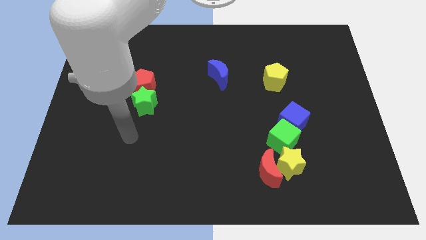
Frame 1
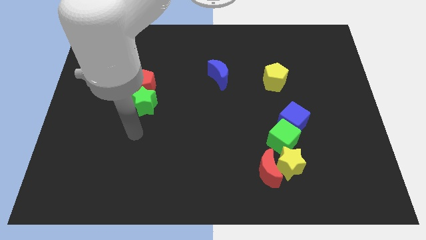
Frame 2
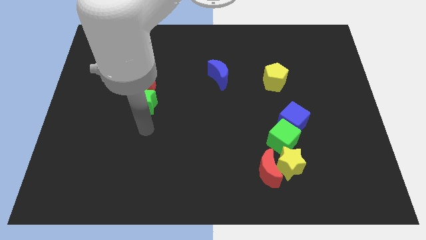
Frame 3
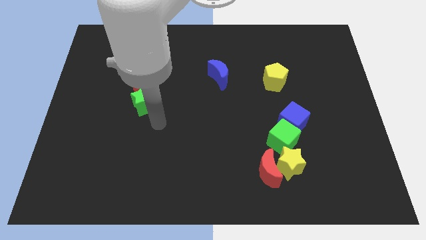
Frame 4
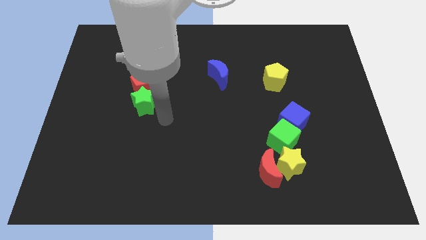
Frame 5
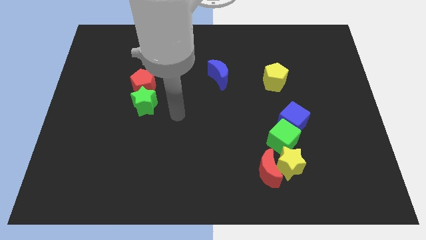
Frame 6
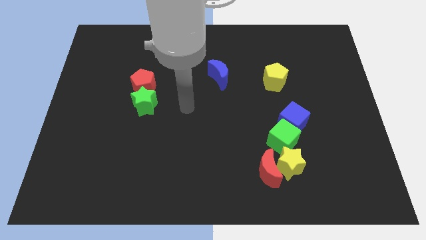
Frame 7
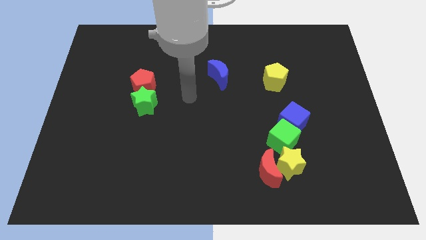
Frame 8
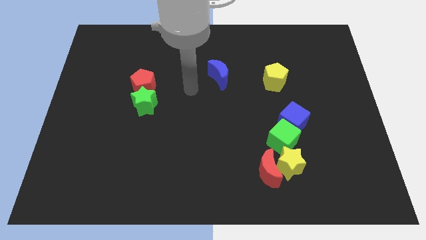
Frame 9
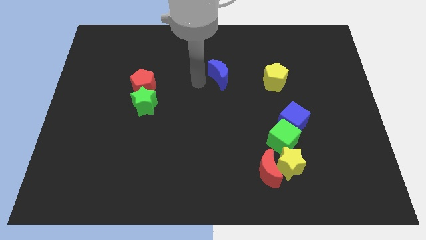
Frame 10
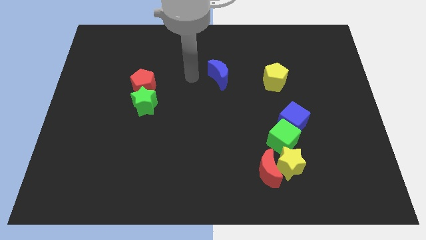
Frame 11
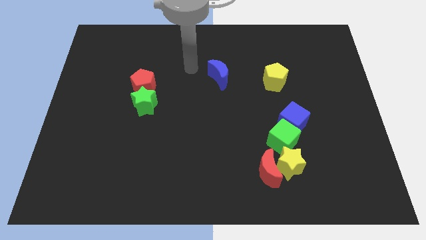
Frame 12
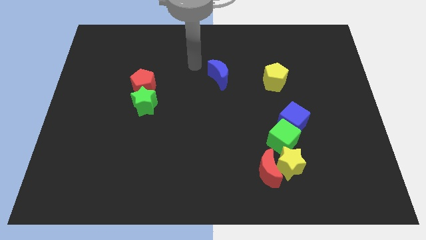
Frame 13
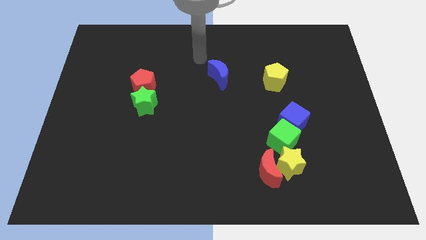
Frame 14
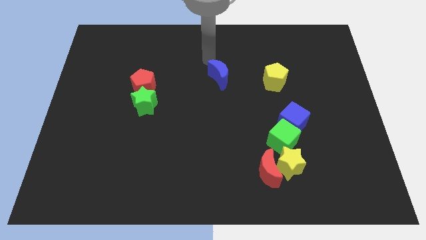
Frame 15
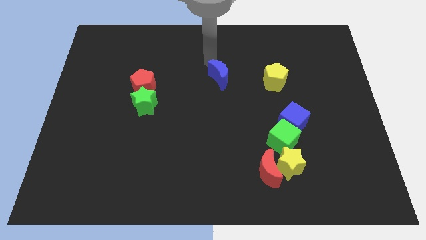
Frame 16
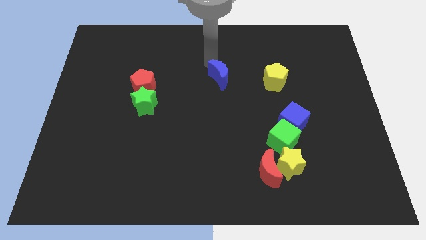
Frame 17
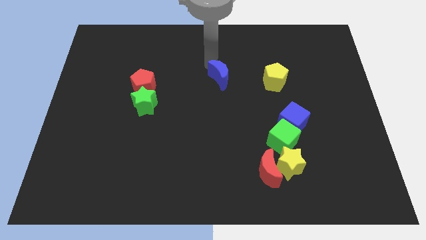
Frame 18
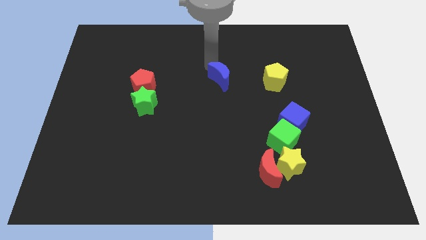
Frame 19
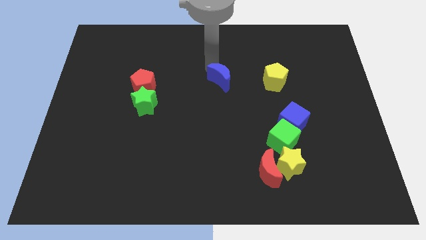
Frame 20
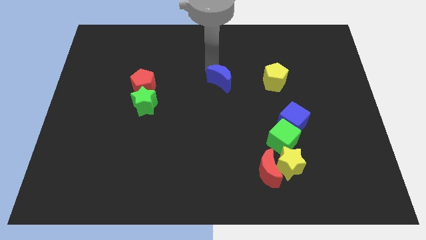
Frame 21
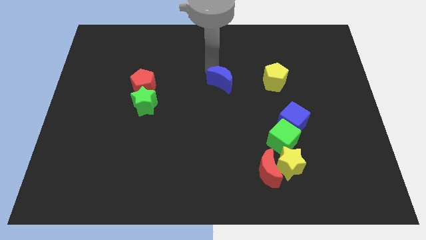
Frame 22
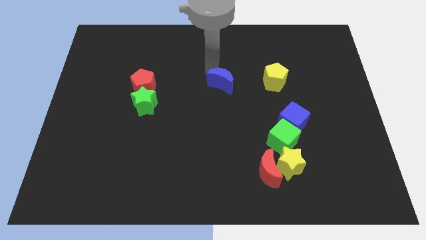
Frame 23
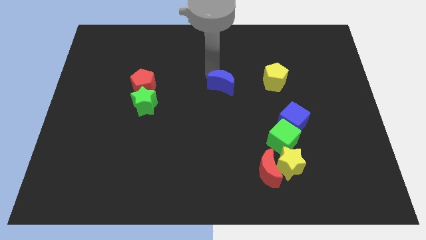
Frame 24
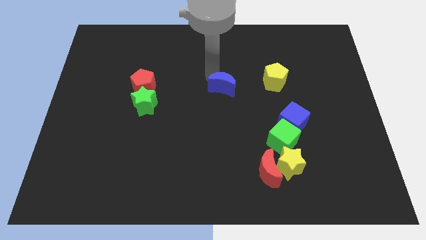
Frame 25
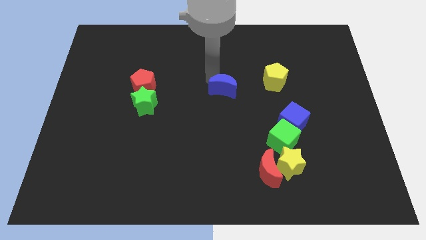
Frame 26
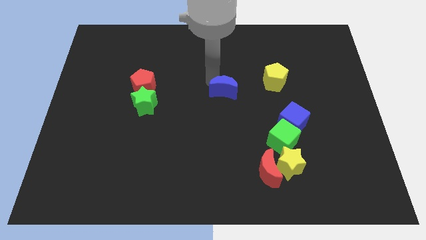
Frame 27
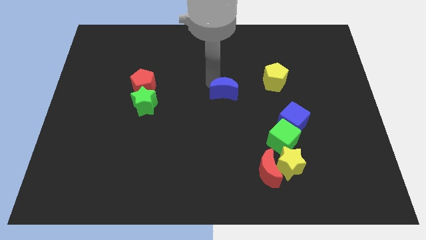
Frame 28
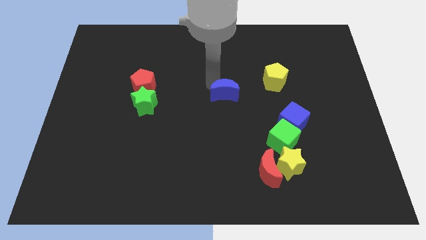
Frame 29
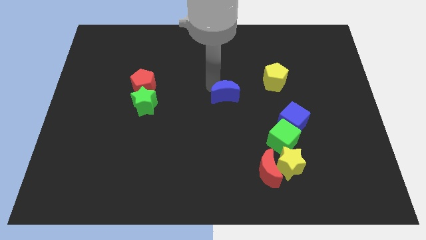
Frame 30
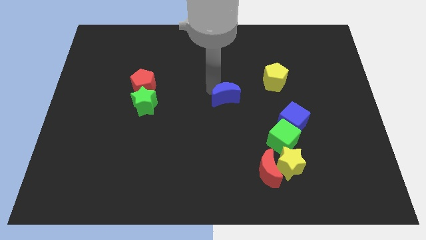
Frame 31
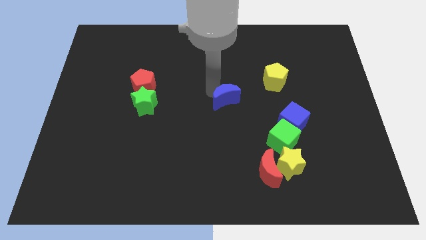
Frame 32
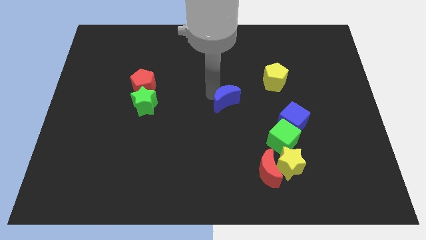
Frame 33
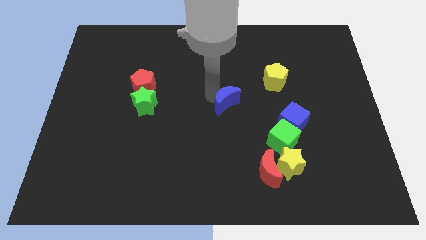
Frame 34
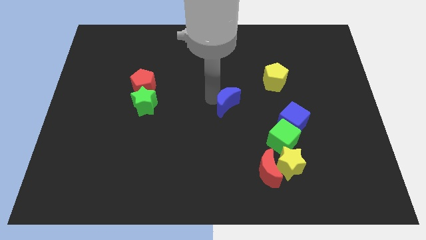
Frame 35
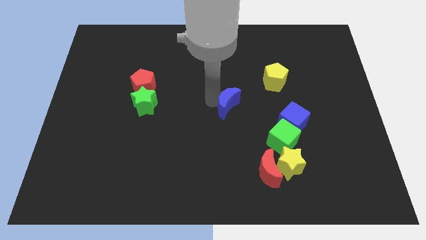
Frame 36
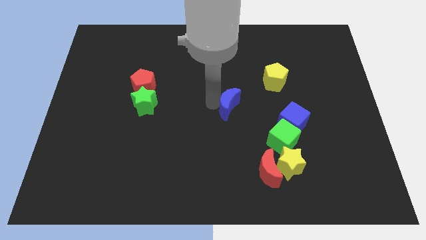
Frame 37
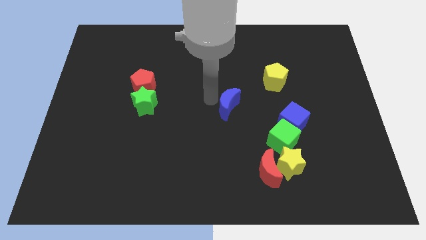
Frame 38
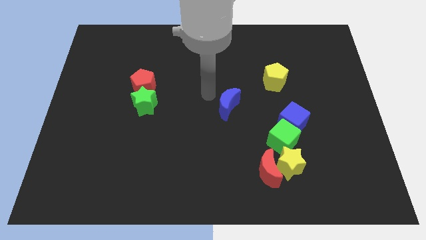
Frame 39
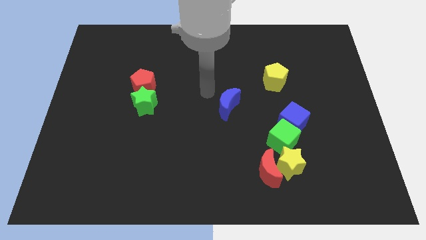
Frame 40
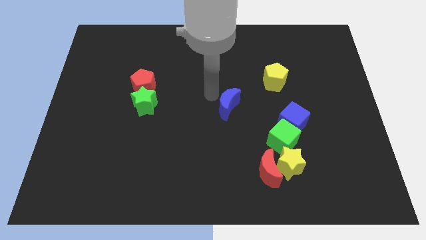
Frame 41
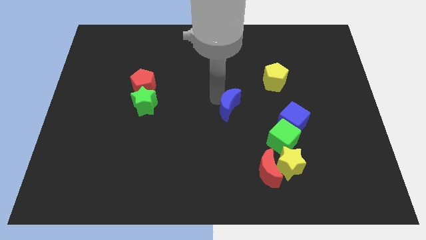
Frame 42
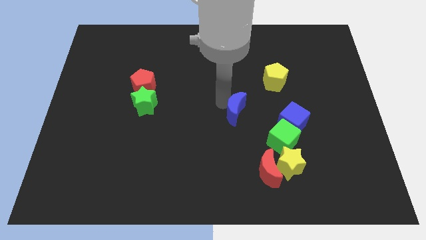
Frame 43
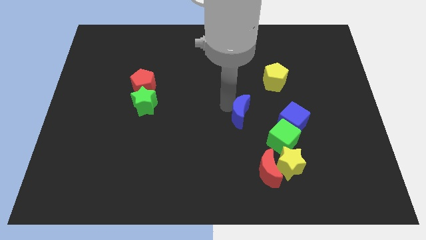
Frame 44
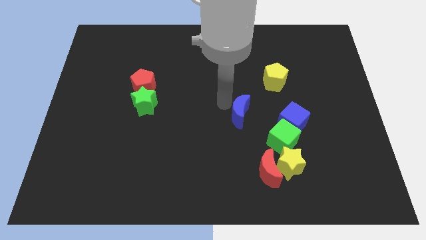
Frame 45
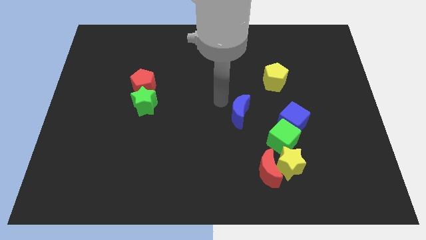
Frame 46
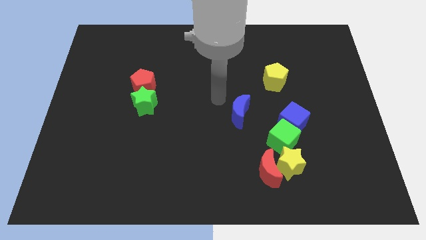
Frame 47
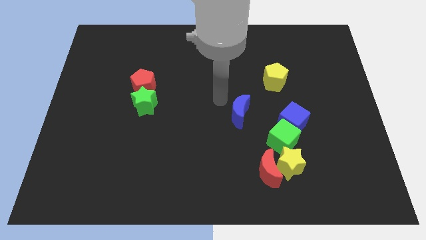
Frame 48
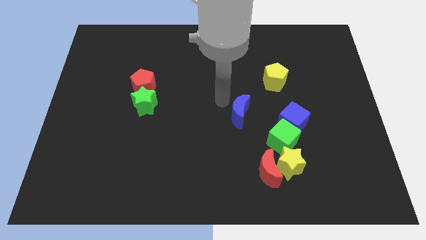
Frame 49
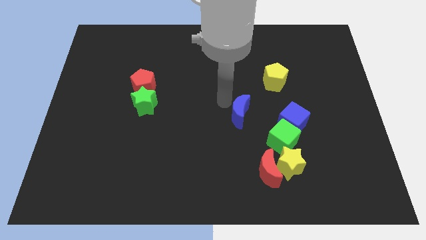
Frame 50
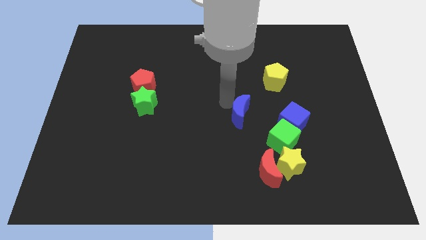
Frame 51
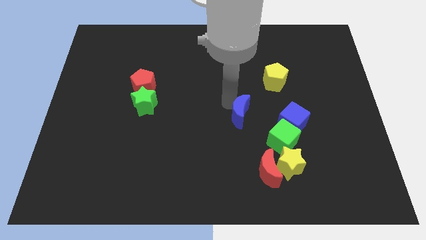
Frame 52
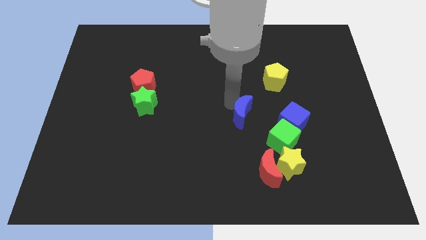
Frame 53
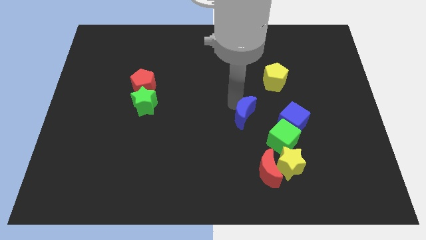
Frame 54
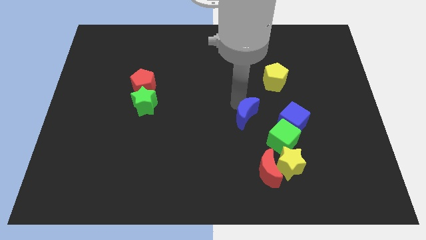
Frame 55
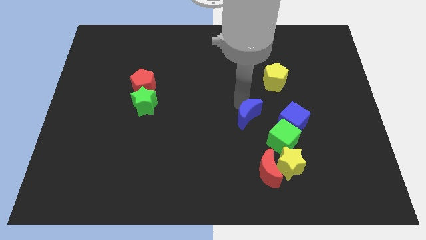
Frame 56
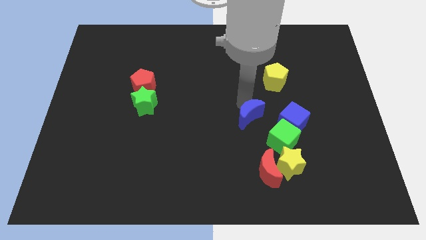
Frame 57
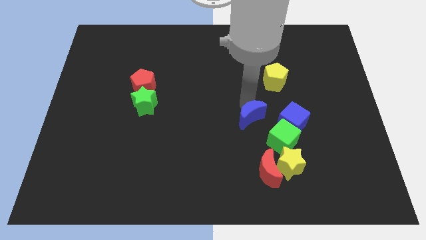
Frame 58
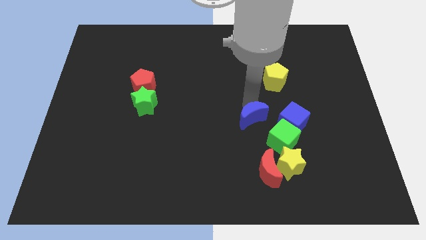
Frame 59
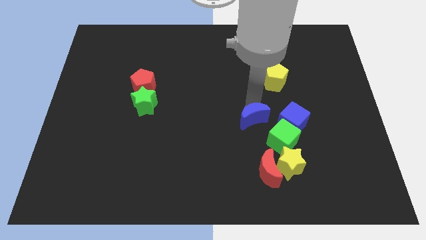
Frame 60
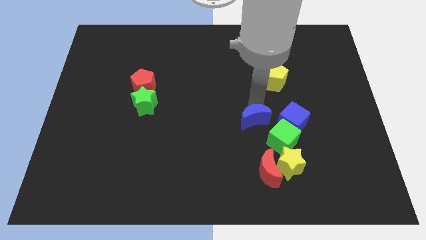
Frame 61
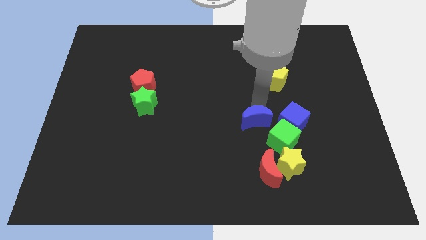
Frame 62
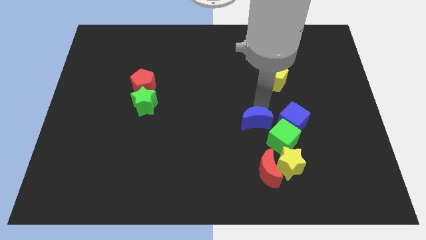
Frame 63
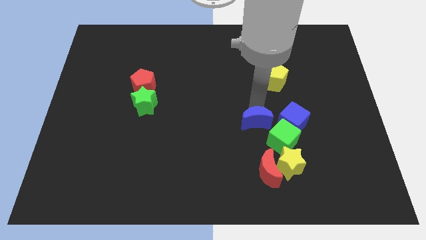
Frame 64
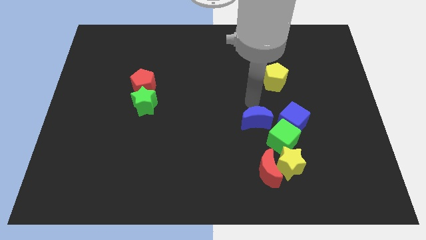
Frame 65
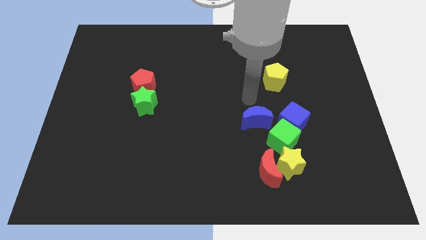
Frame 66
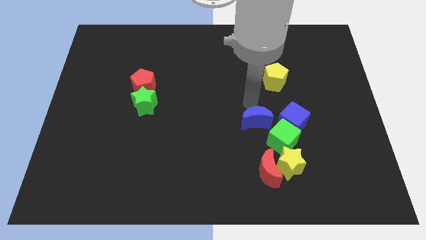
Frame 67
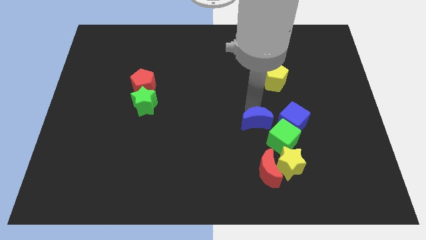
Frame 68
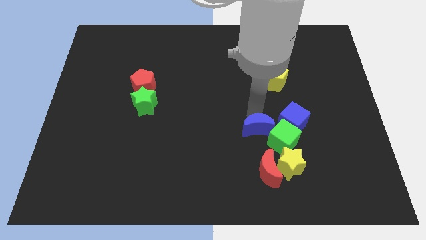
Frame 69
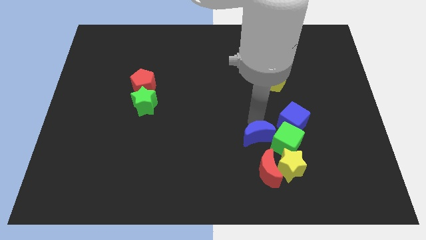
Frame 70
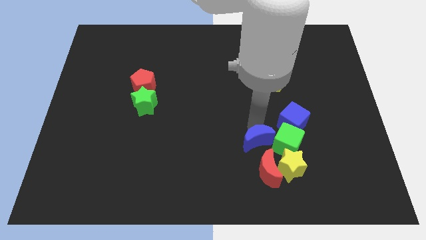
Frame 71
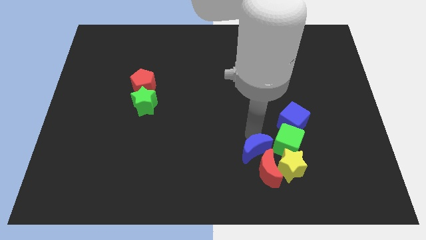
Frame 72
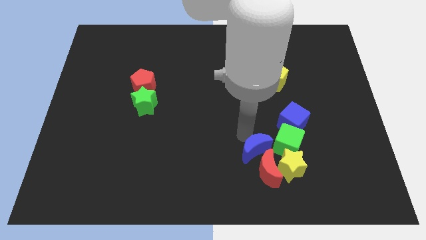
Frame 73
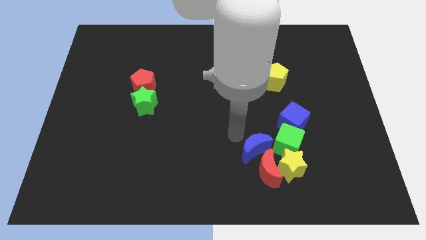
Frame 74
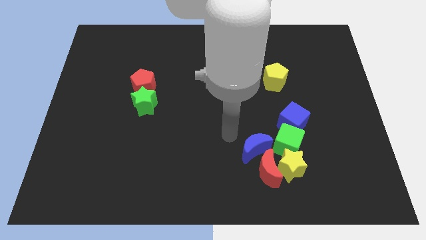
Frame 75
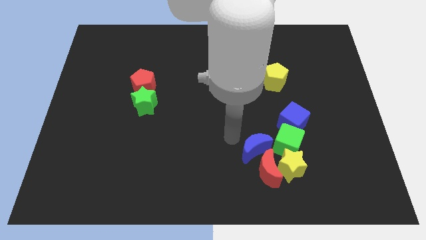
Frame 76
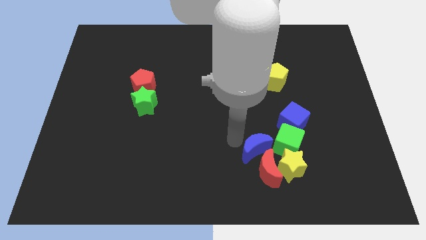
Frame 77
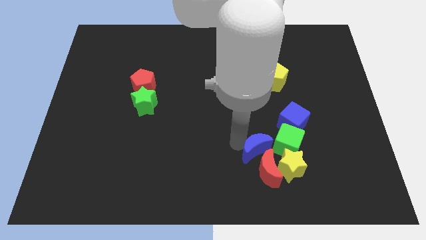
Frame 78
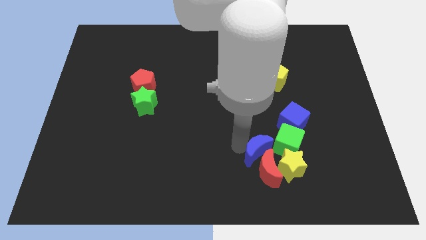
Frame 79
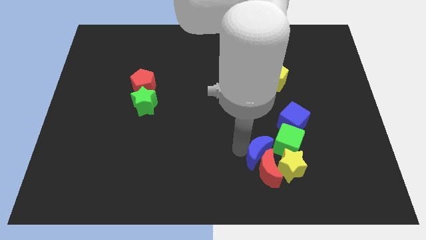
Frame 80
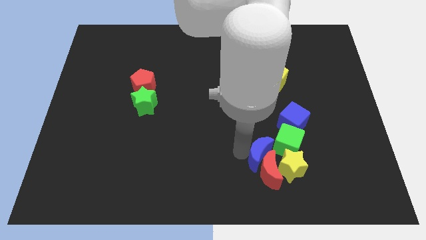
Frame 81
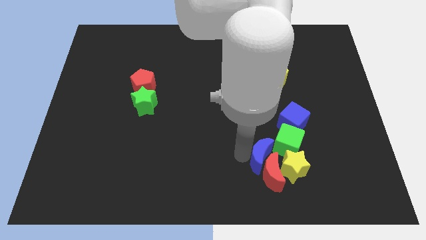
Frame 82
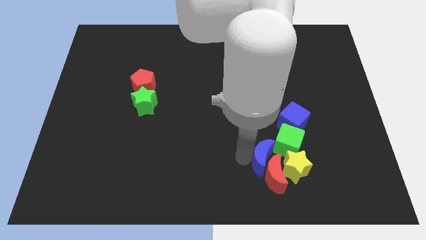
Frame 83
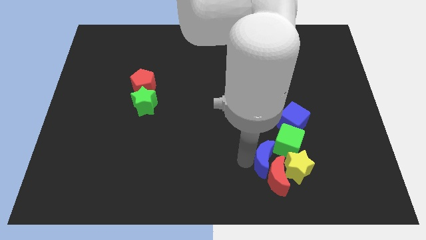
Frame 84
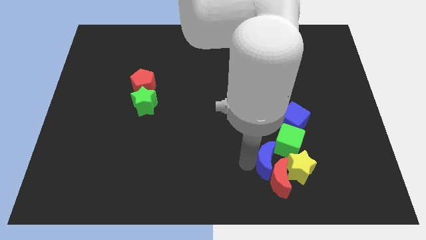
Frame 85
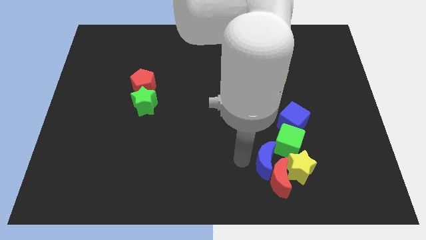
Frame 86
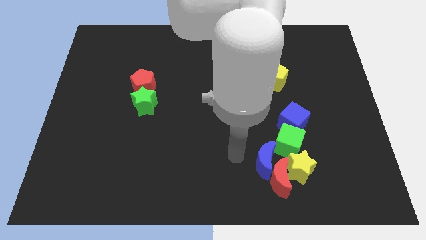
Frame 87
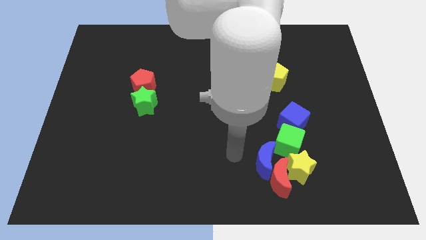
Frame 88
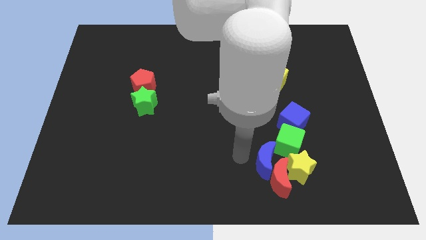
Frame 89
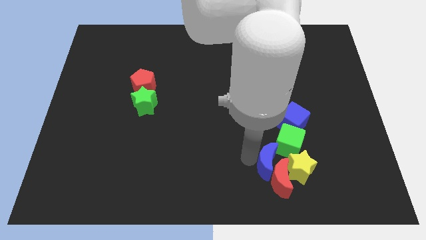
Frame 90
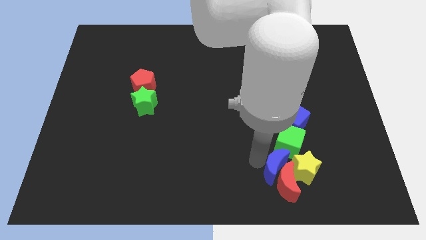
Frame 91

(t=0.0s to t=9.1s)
slide the blue moon to the yellow star
